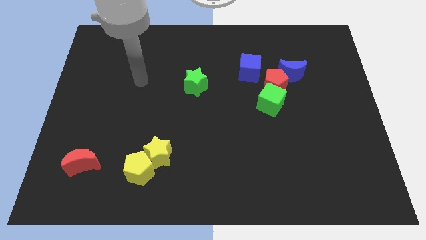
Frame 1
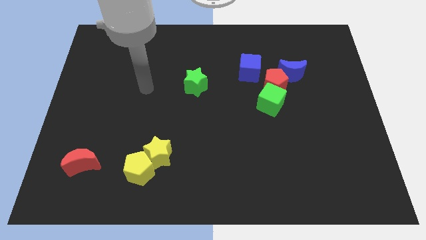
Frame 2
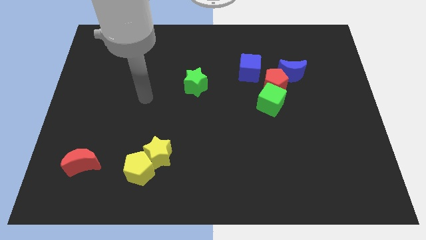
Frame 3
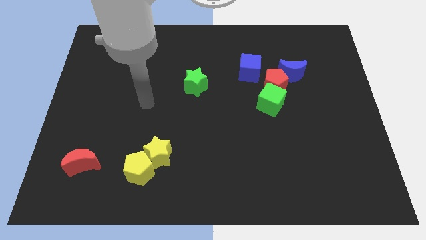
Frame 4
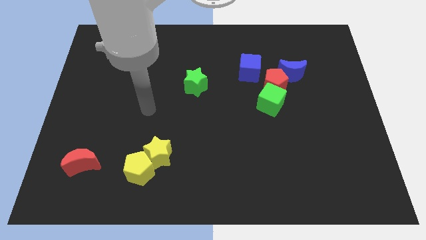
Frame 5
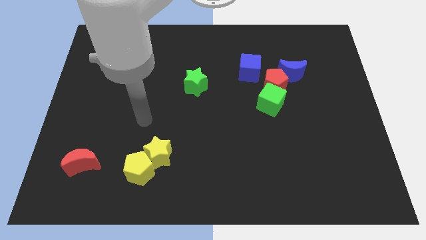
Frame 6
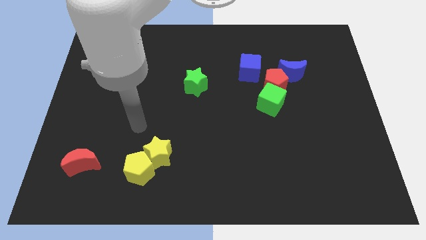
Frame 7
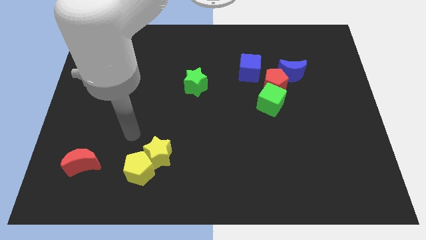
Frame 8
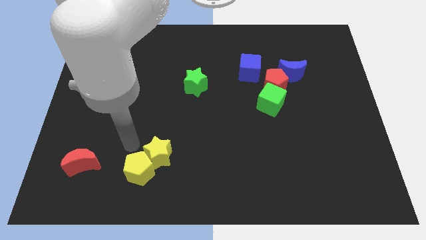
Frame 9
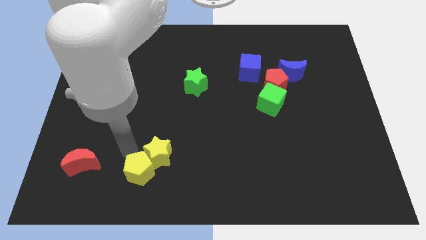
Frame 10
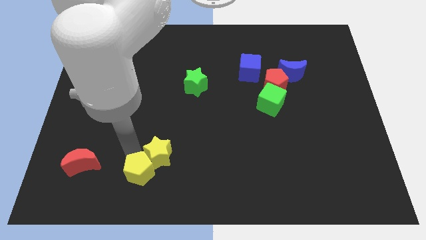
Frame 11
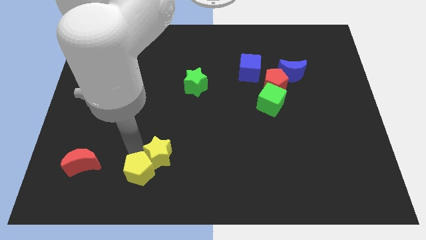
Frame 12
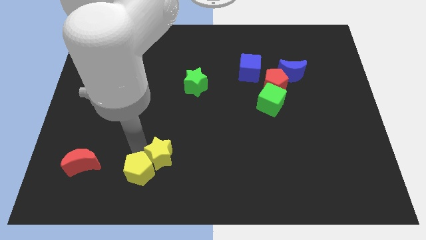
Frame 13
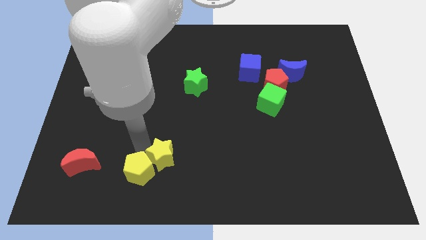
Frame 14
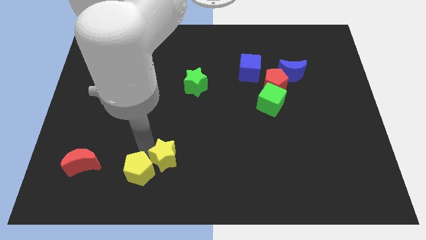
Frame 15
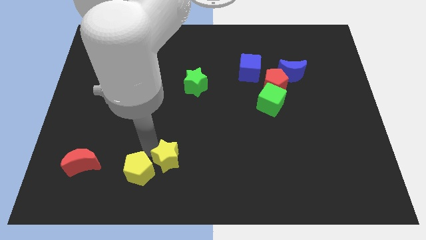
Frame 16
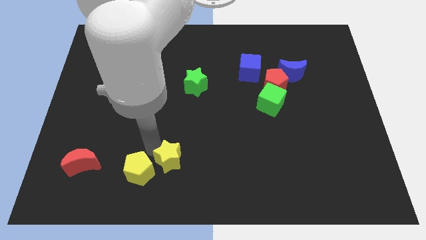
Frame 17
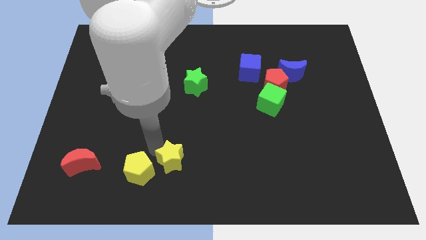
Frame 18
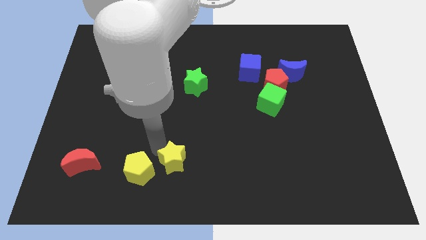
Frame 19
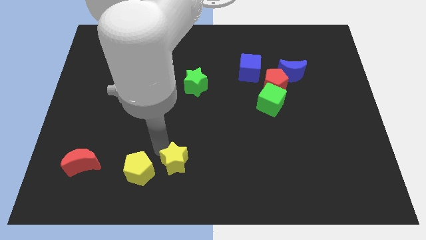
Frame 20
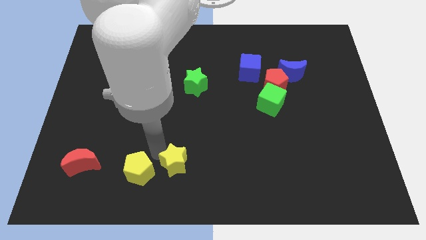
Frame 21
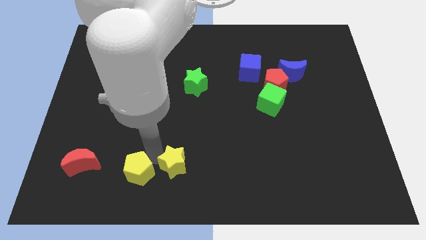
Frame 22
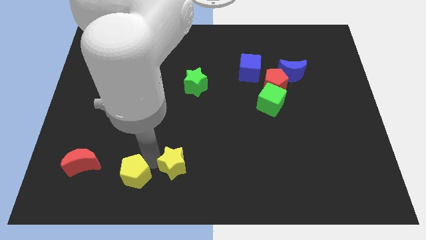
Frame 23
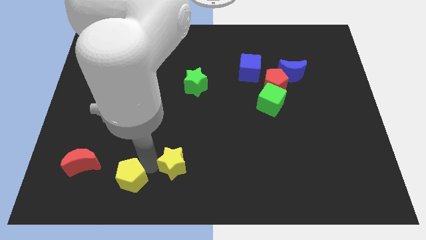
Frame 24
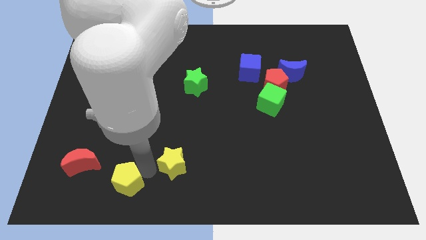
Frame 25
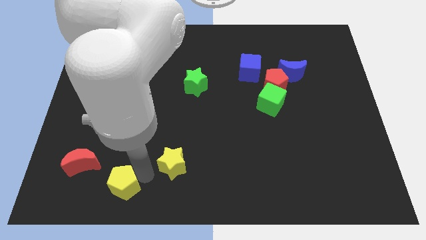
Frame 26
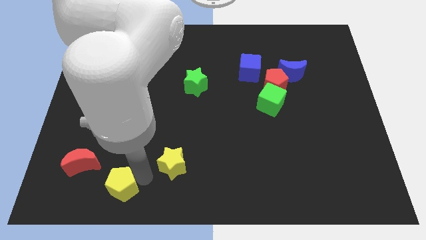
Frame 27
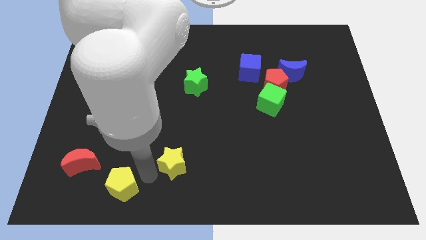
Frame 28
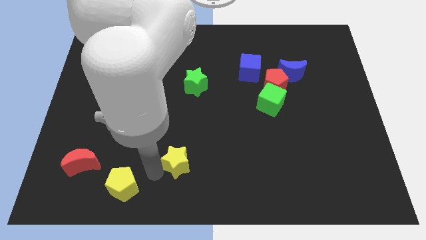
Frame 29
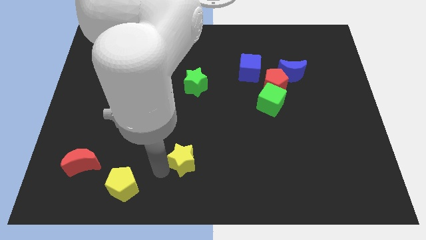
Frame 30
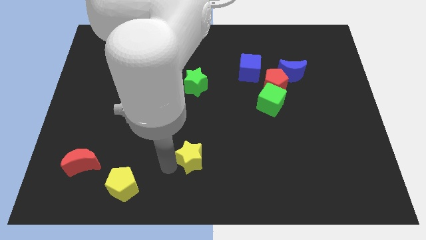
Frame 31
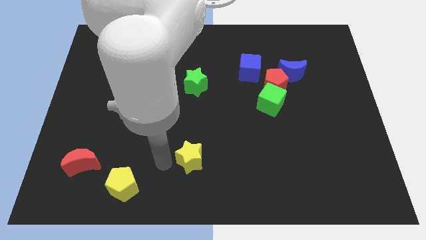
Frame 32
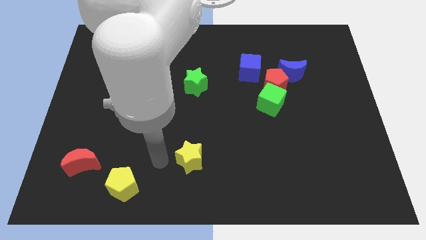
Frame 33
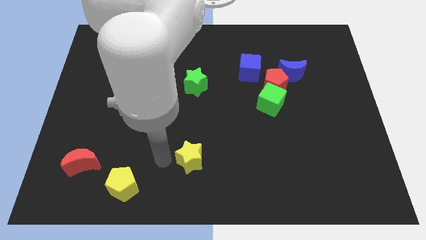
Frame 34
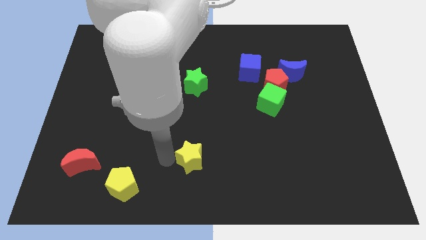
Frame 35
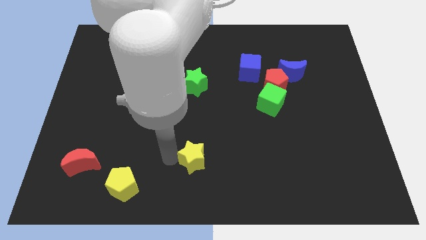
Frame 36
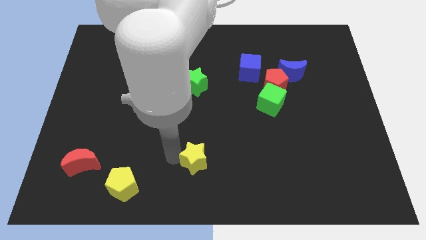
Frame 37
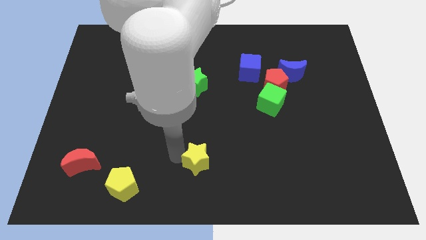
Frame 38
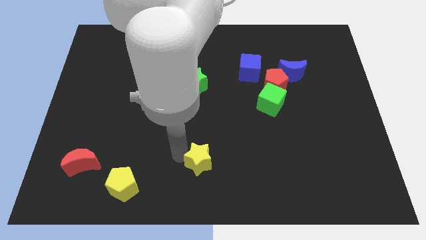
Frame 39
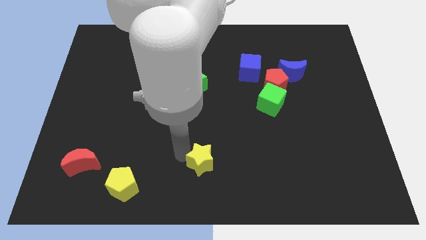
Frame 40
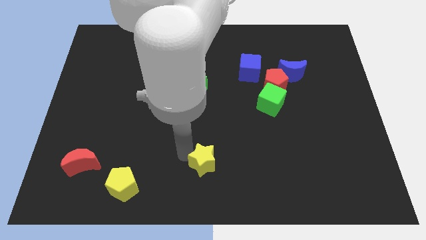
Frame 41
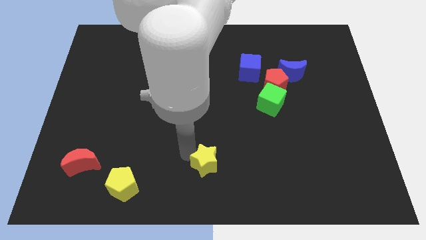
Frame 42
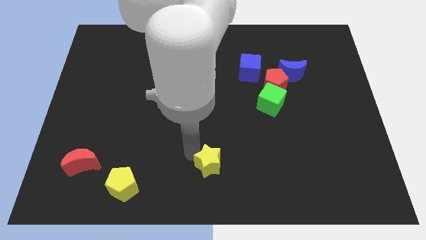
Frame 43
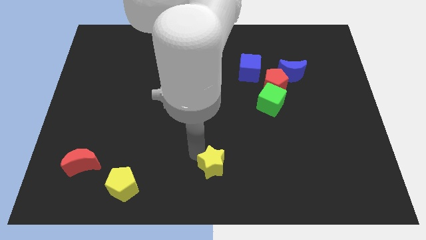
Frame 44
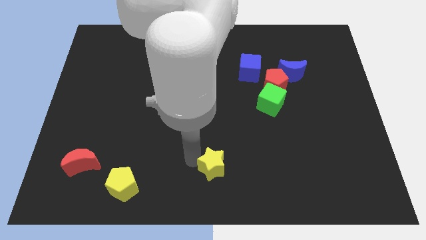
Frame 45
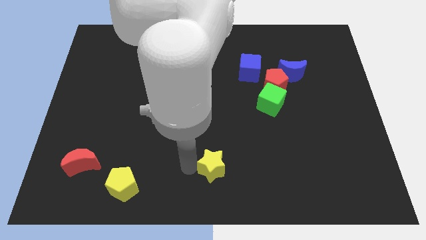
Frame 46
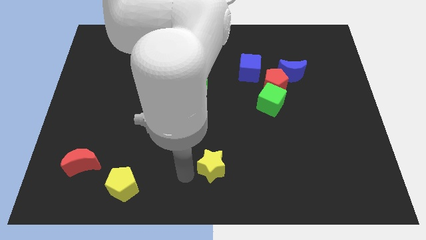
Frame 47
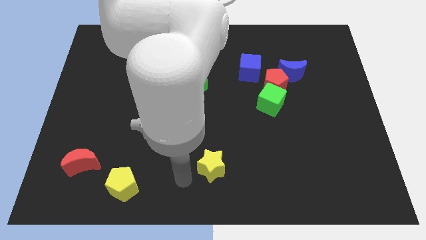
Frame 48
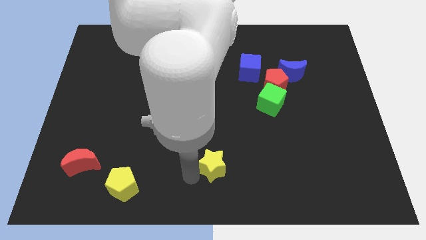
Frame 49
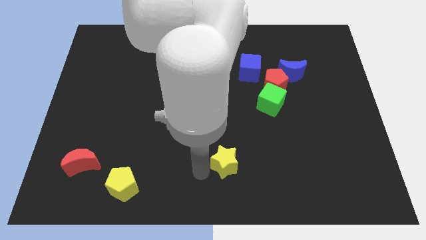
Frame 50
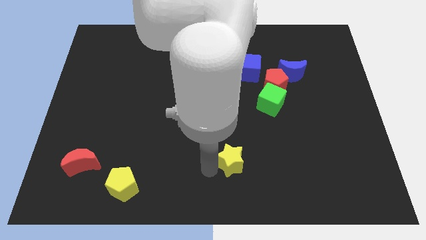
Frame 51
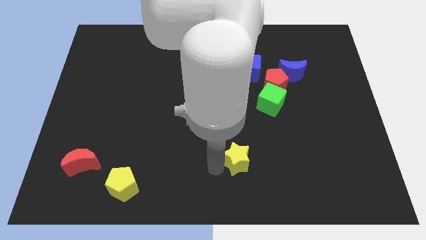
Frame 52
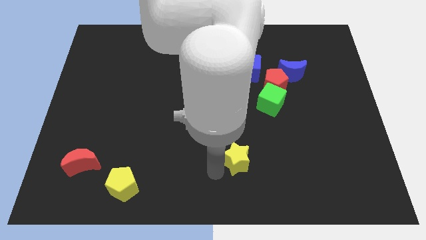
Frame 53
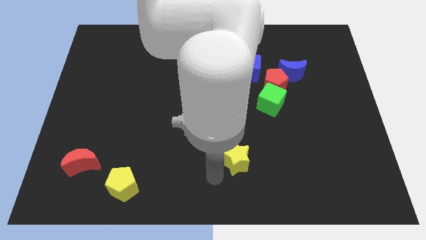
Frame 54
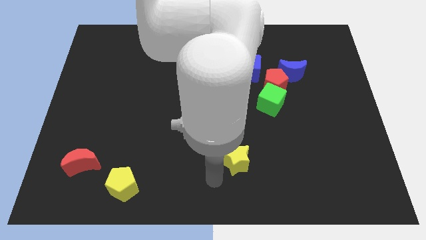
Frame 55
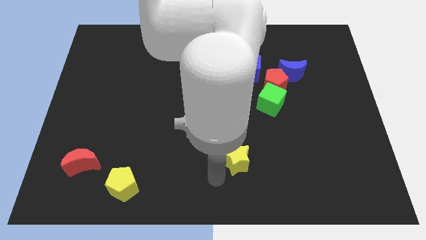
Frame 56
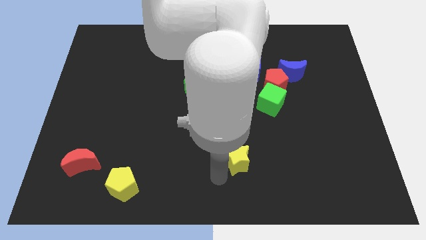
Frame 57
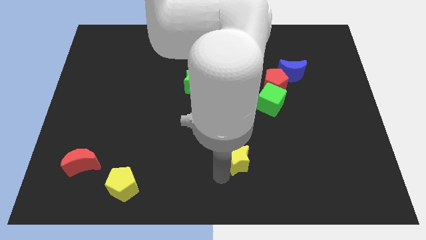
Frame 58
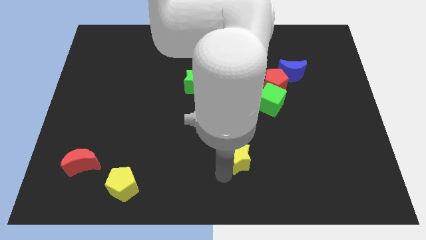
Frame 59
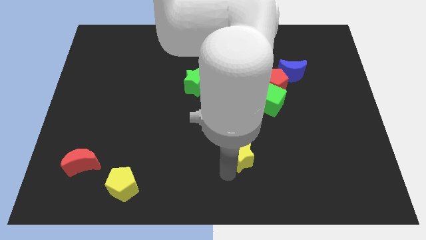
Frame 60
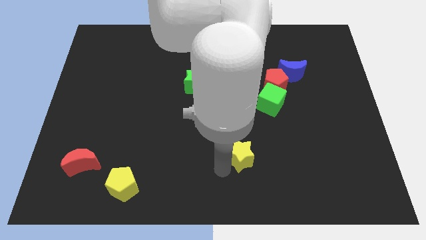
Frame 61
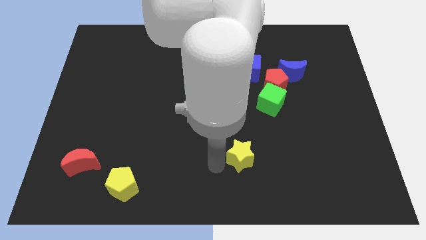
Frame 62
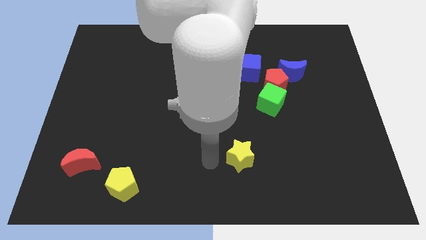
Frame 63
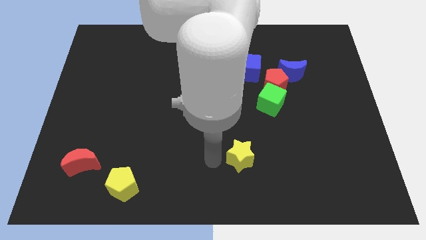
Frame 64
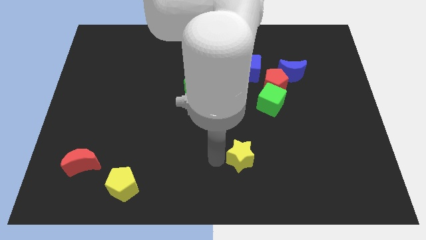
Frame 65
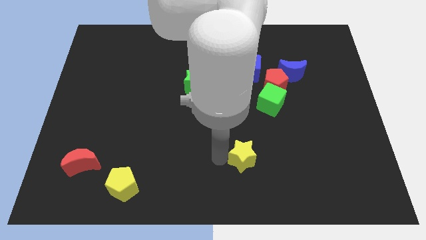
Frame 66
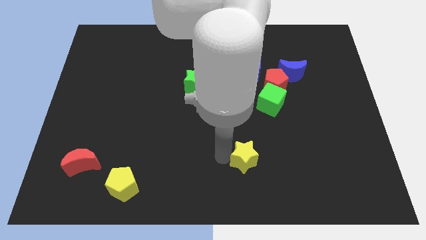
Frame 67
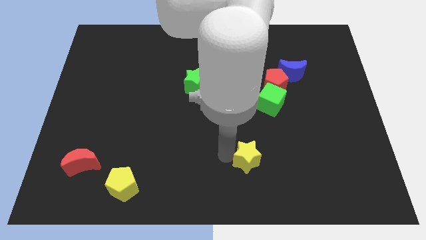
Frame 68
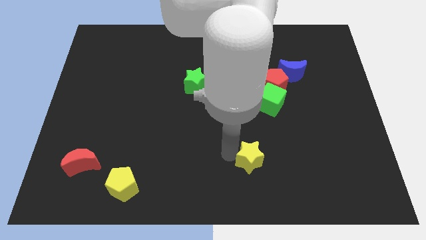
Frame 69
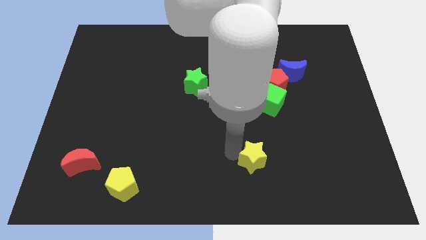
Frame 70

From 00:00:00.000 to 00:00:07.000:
slide the yellow star right

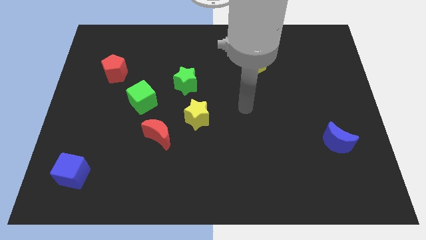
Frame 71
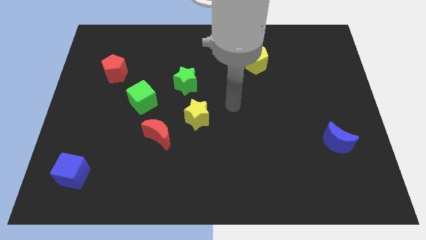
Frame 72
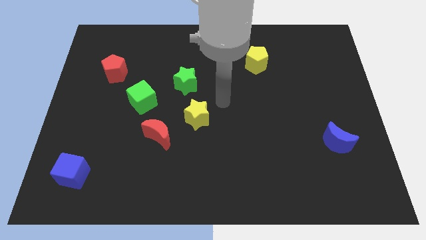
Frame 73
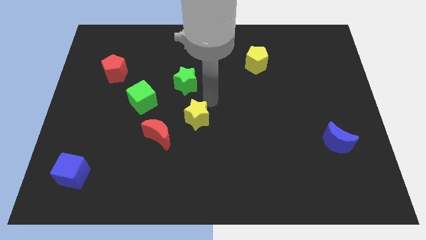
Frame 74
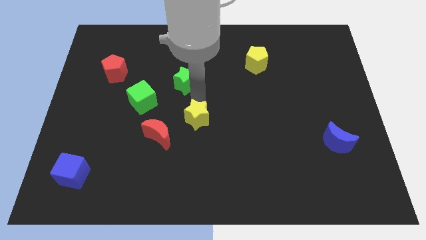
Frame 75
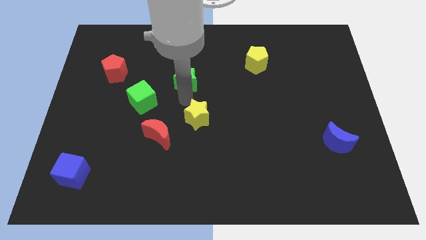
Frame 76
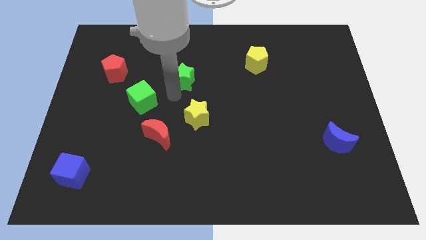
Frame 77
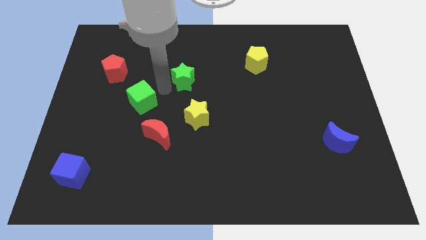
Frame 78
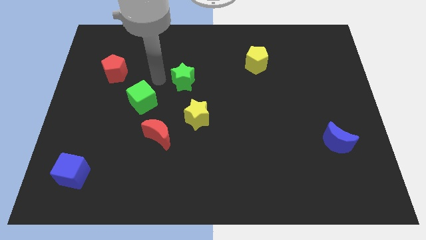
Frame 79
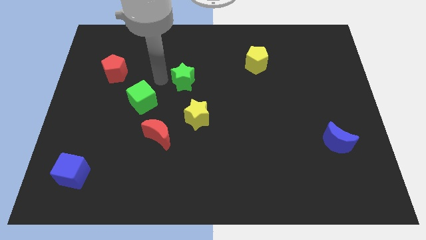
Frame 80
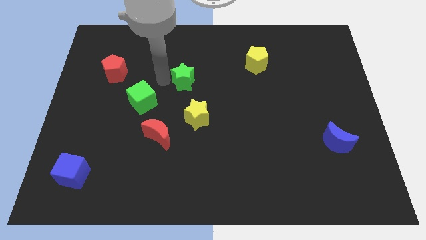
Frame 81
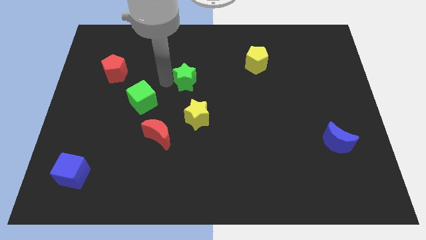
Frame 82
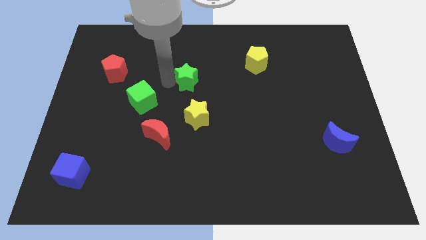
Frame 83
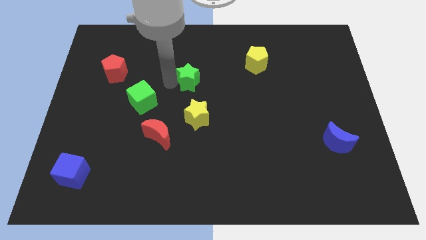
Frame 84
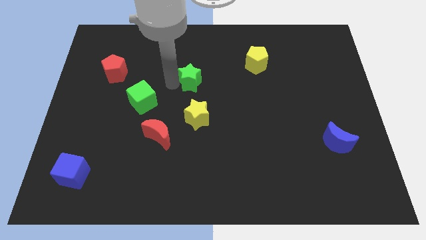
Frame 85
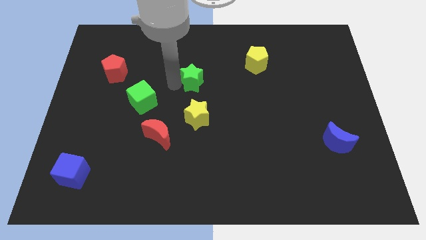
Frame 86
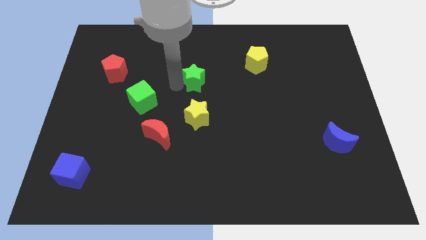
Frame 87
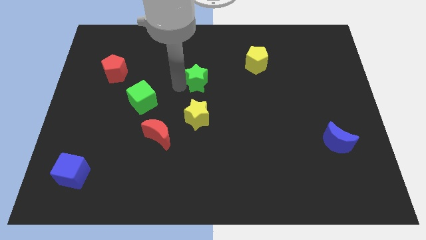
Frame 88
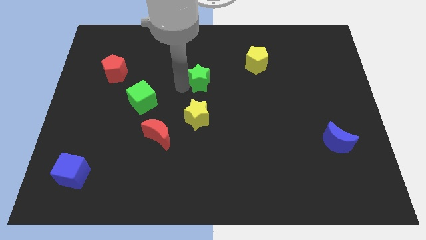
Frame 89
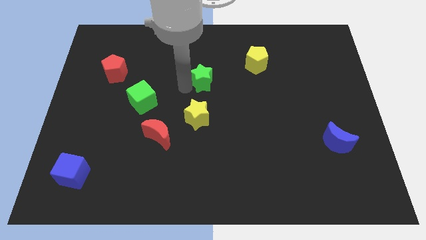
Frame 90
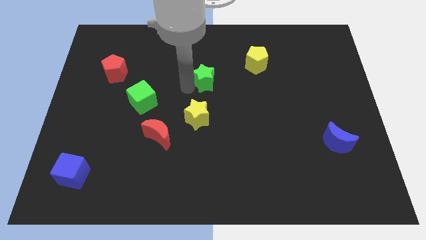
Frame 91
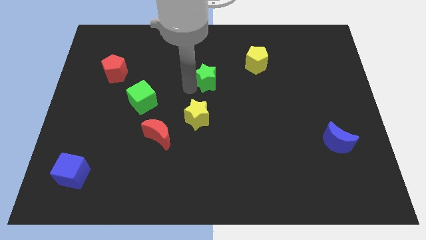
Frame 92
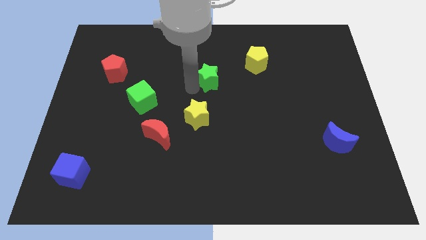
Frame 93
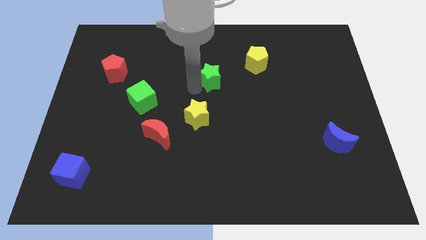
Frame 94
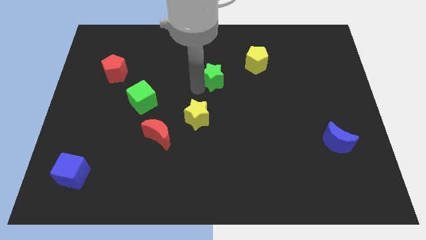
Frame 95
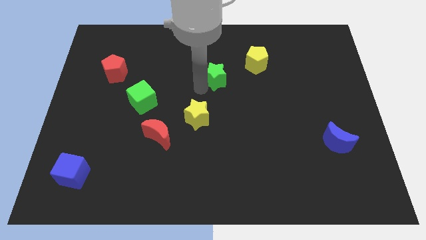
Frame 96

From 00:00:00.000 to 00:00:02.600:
slide the green star a little right
